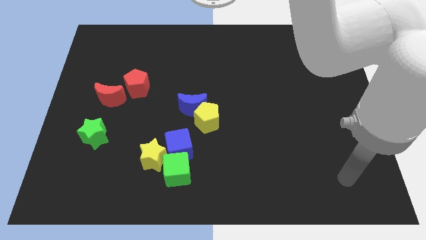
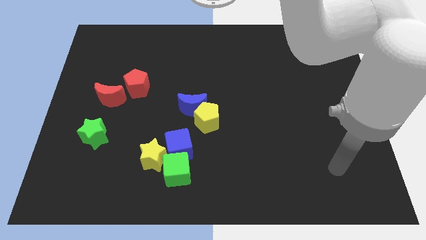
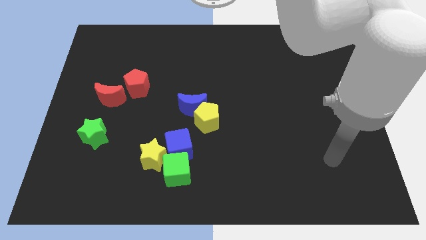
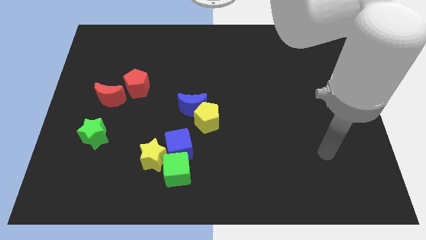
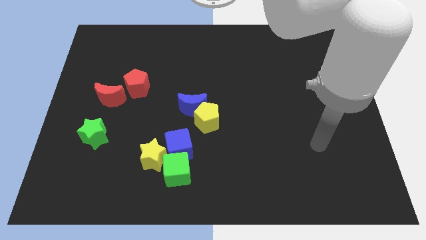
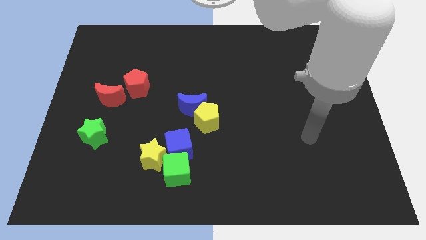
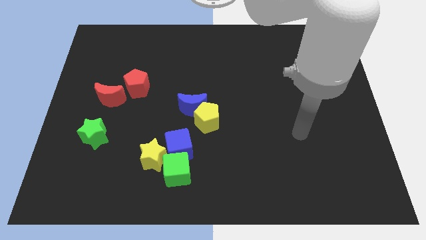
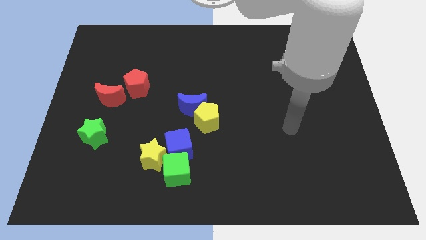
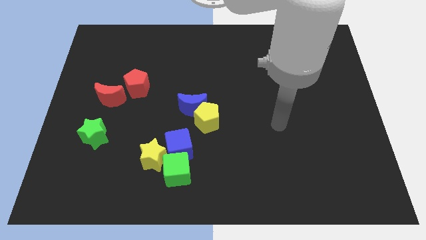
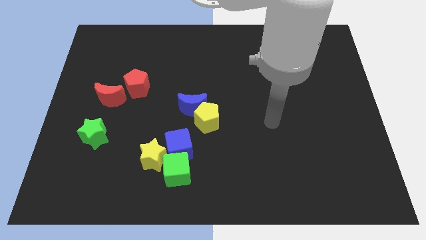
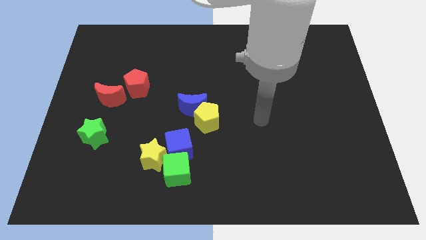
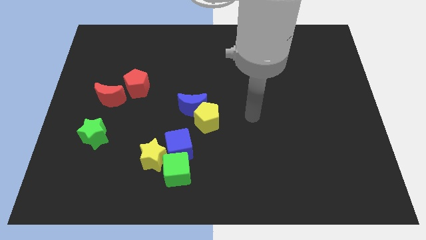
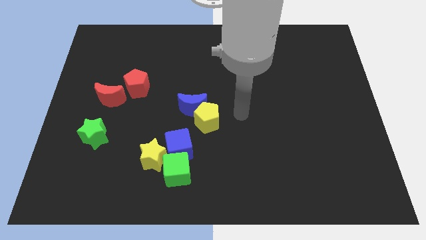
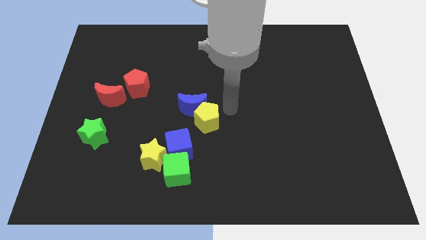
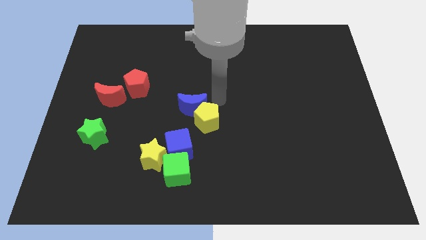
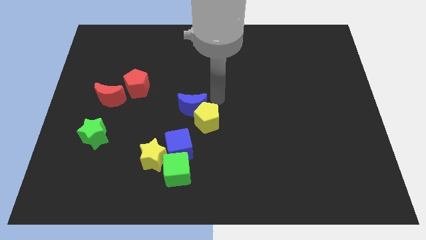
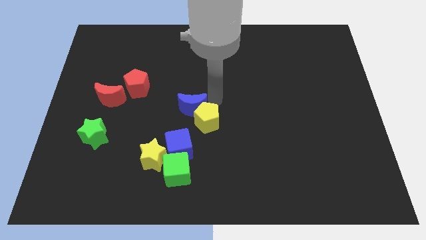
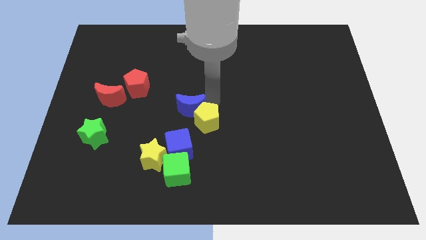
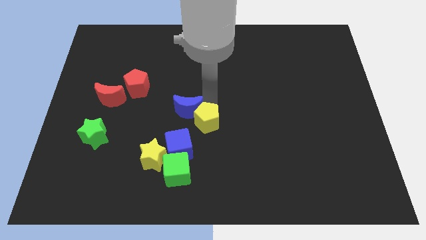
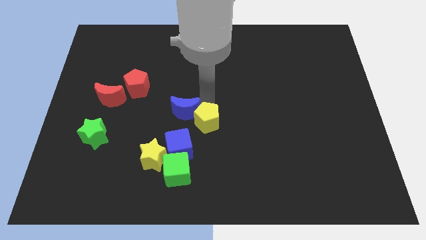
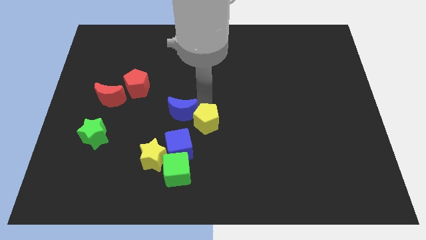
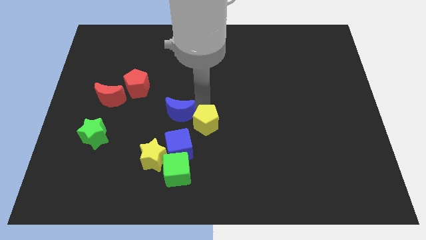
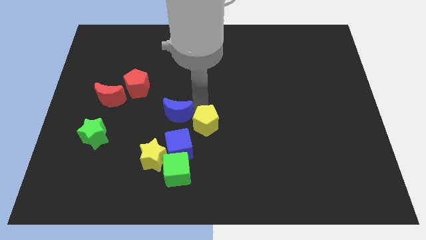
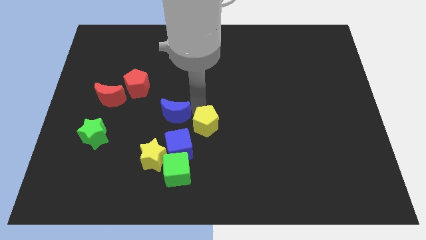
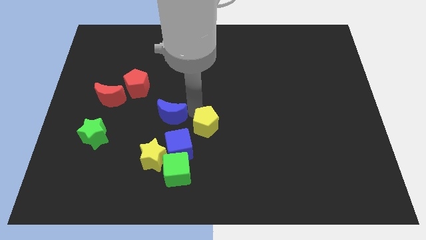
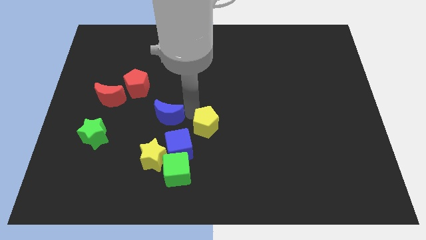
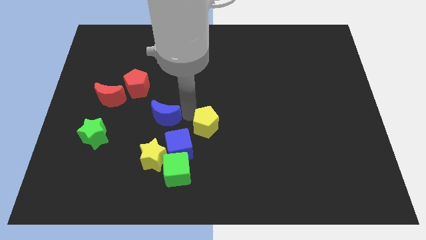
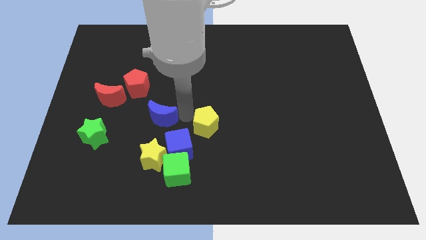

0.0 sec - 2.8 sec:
slide the blue moon downwards and to the left a little bit

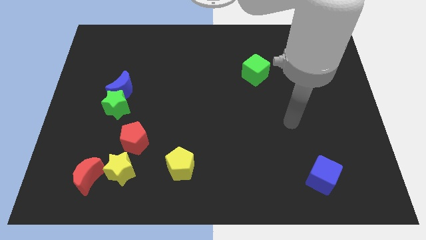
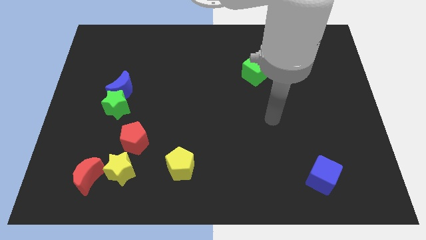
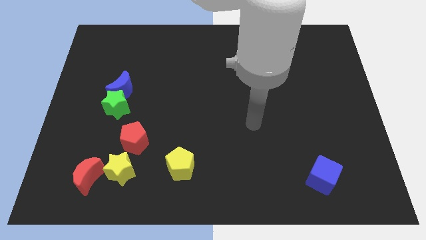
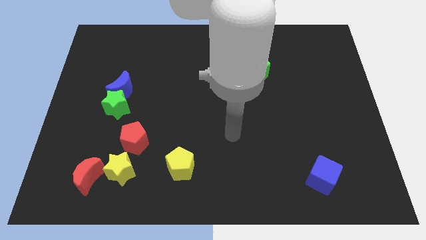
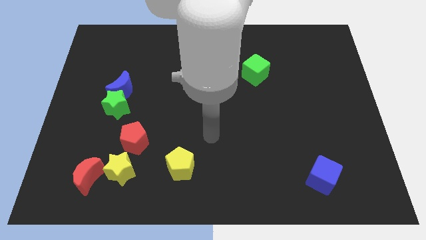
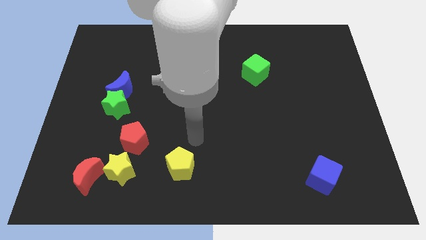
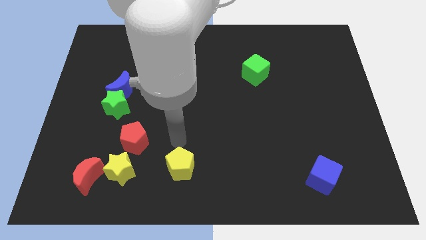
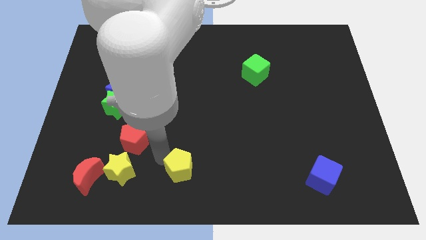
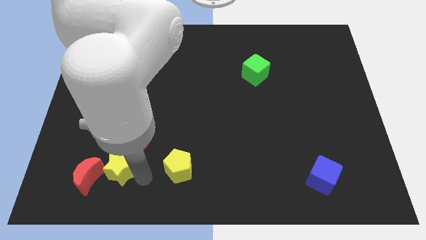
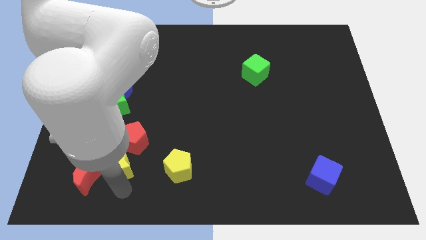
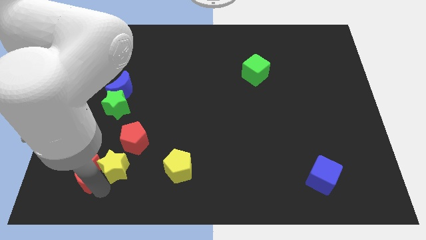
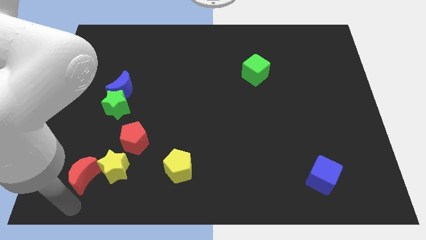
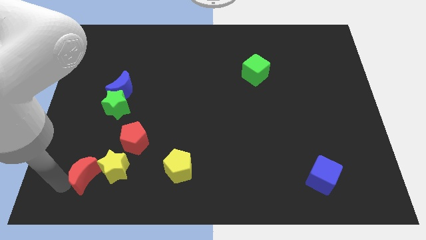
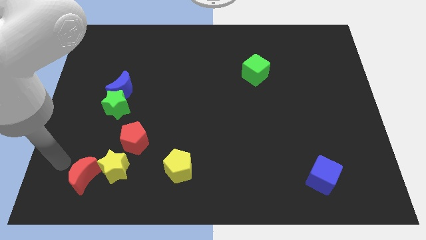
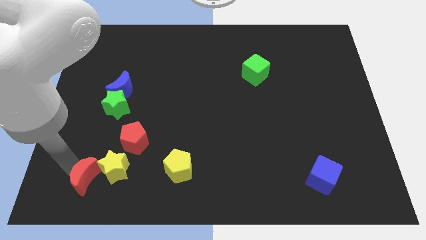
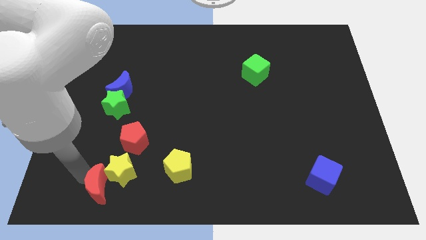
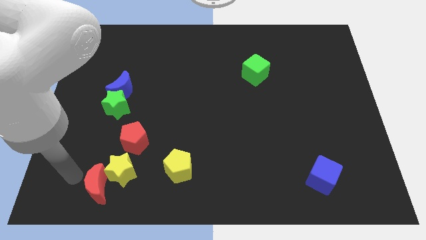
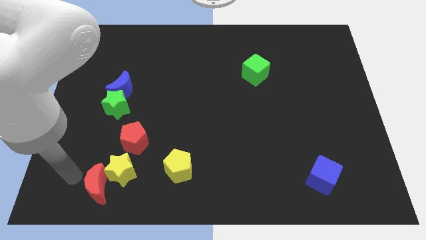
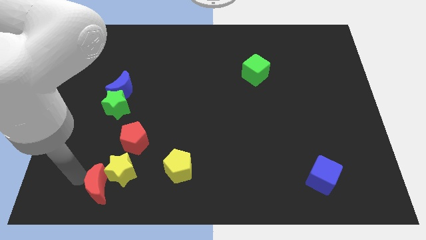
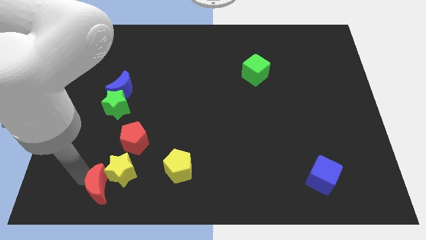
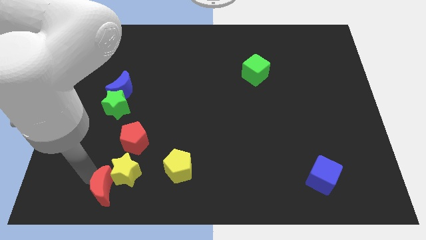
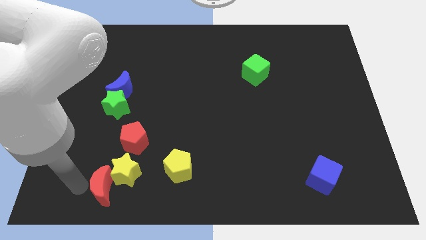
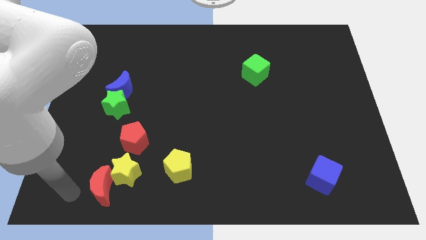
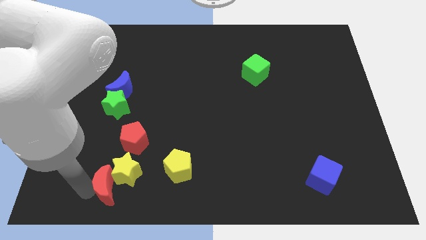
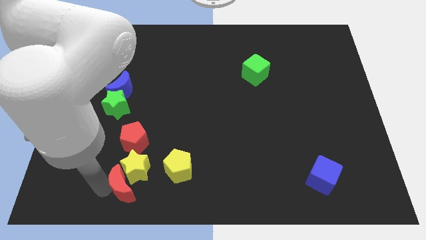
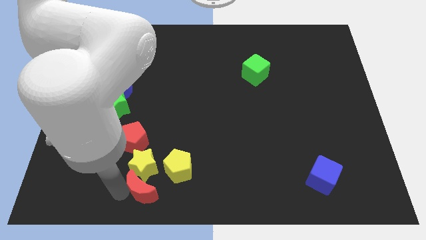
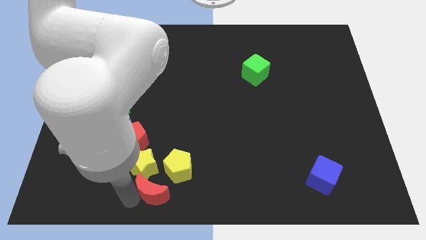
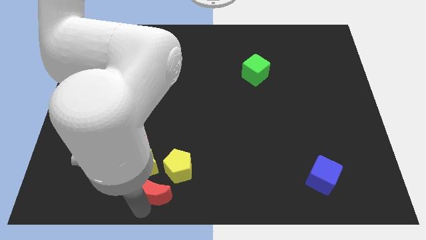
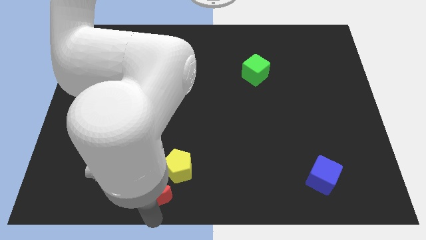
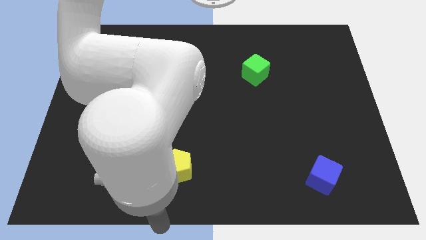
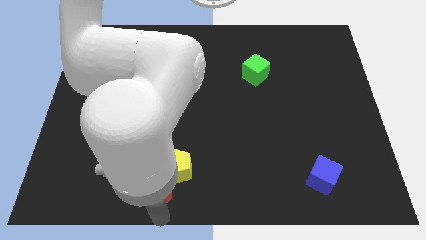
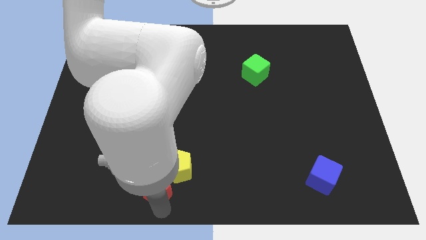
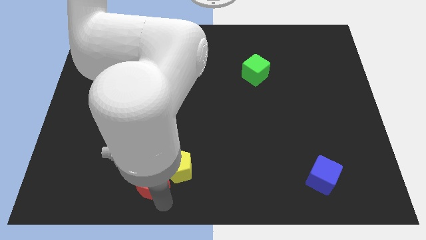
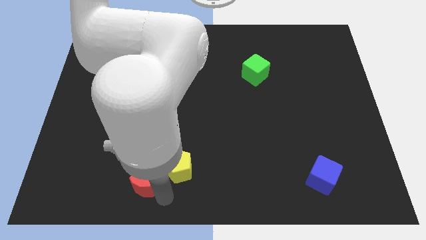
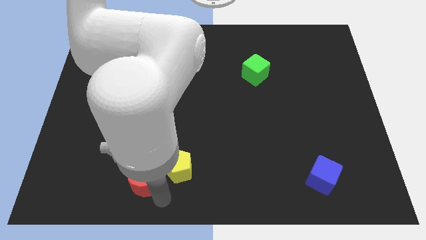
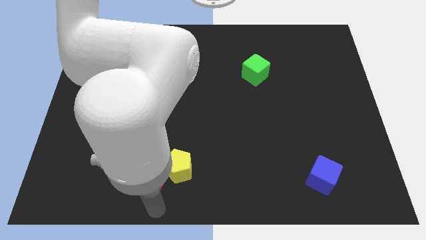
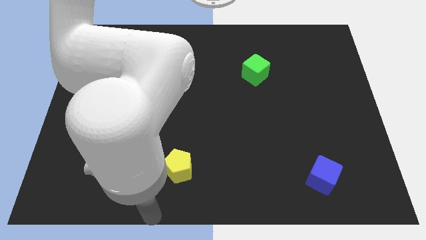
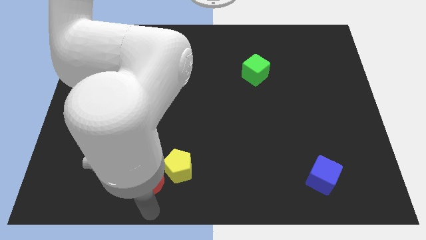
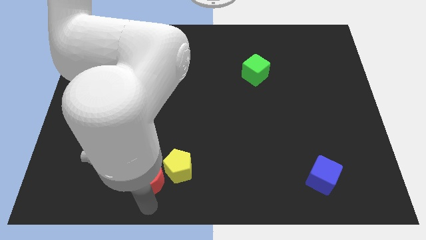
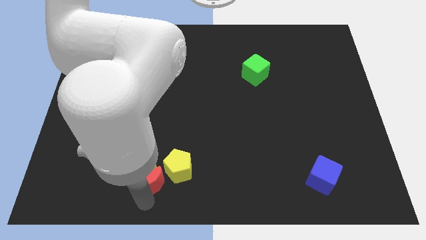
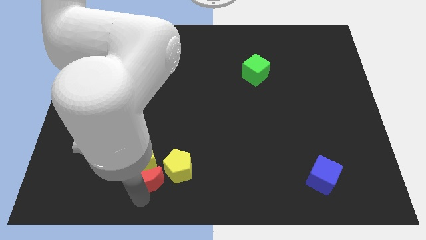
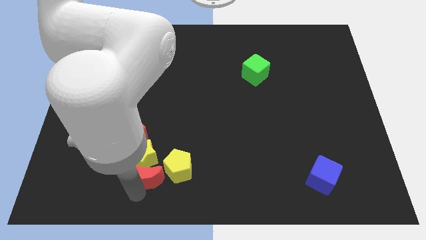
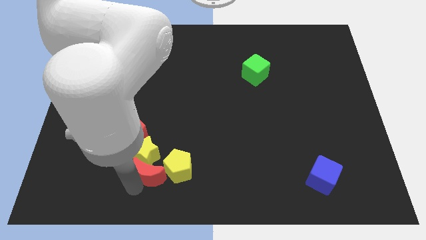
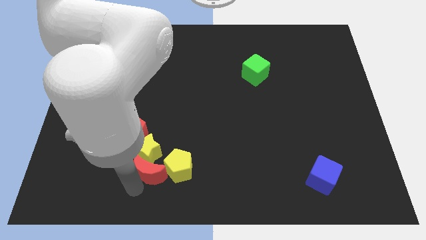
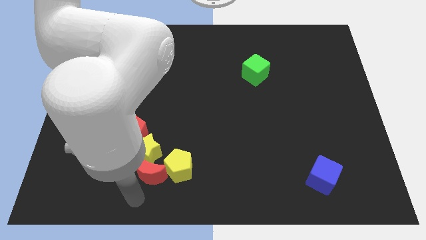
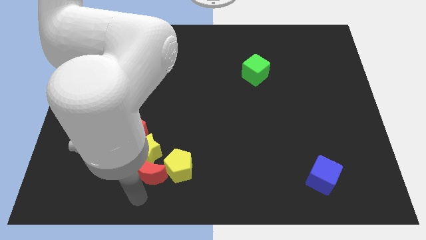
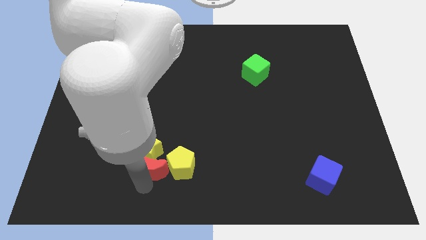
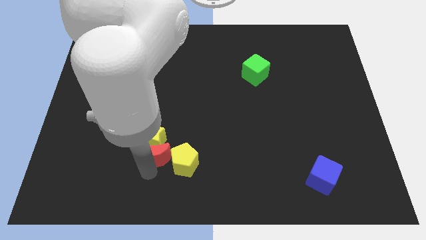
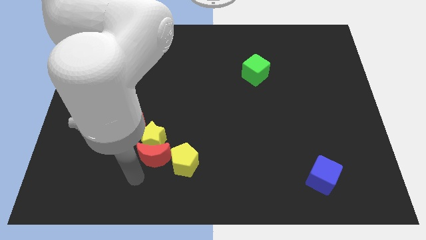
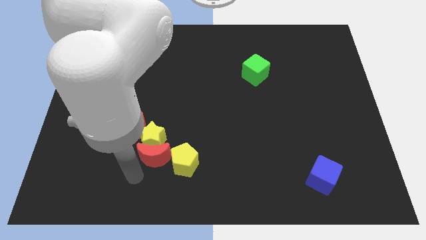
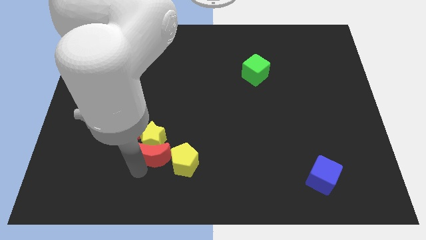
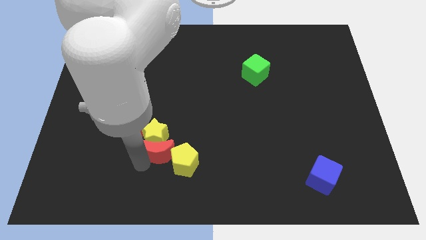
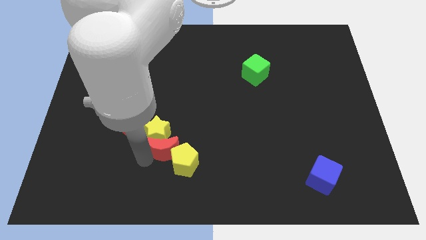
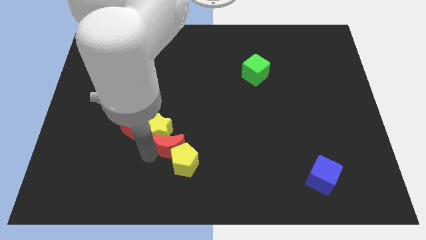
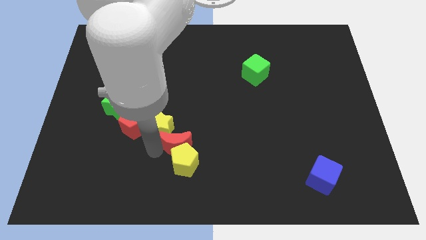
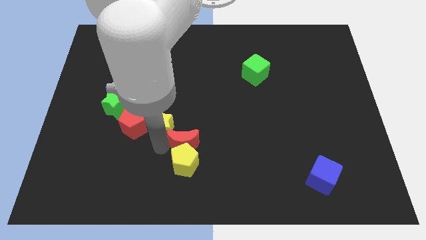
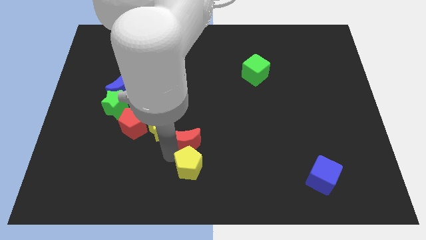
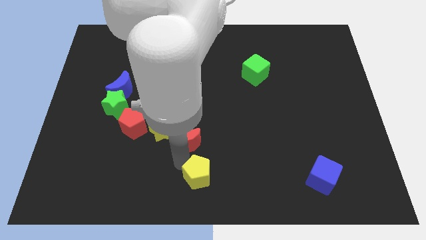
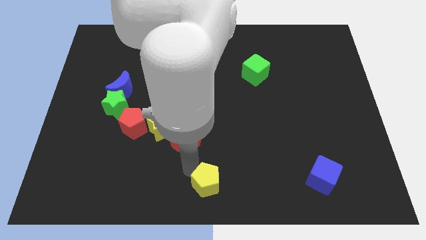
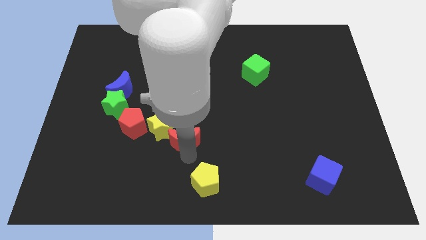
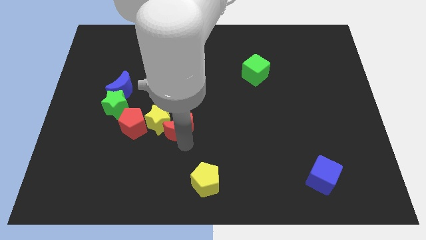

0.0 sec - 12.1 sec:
move the red moon diagonally upwards and right
